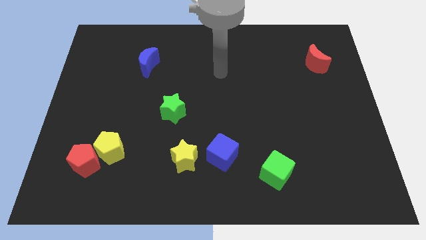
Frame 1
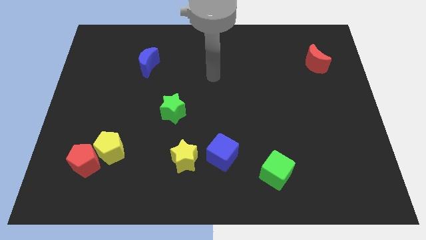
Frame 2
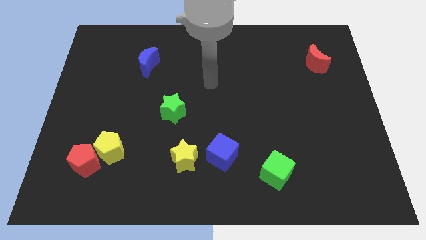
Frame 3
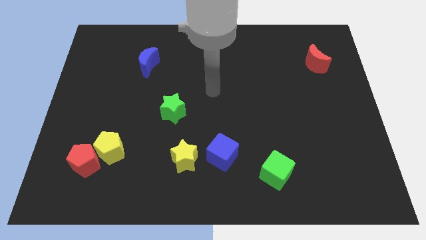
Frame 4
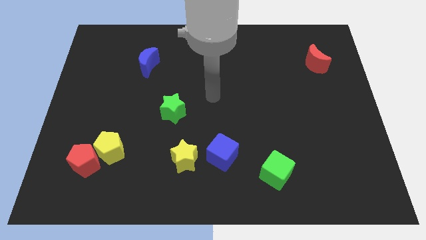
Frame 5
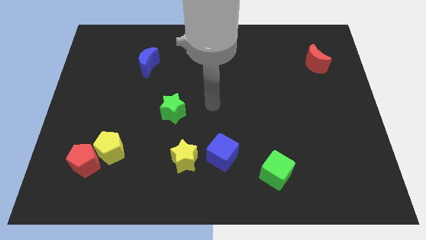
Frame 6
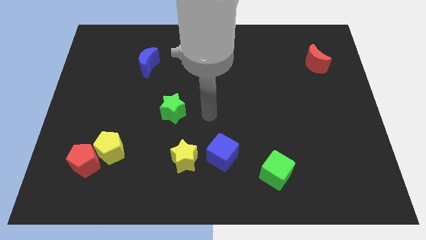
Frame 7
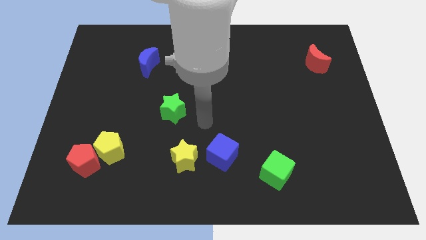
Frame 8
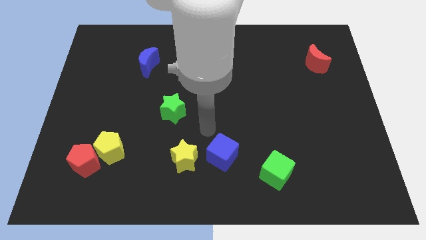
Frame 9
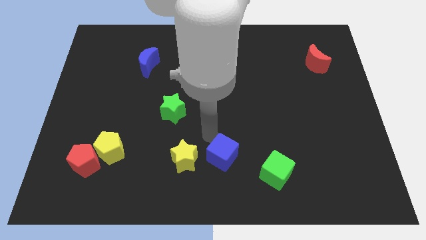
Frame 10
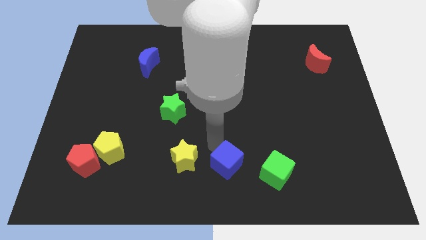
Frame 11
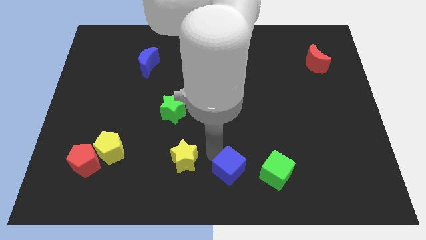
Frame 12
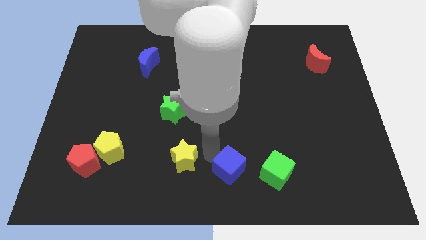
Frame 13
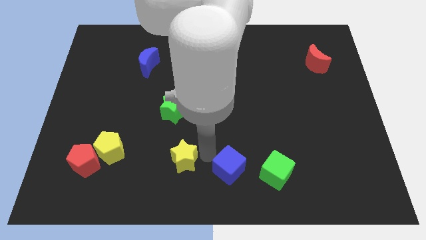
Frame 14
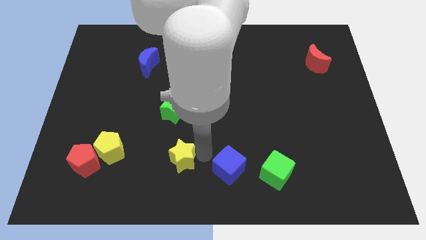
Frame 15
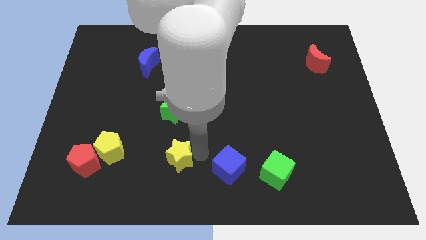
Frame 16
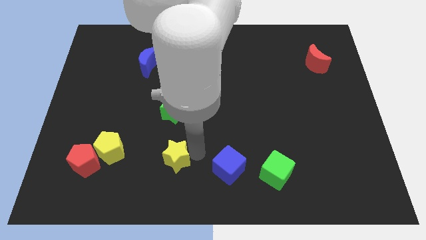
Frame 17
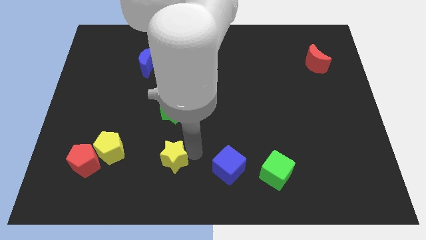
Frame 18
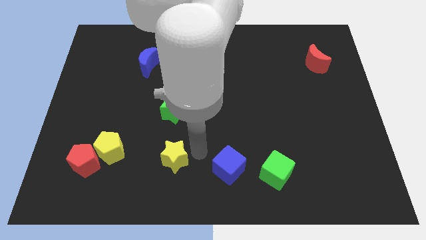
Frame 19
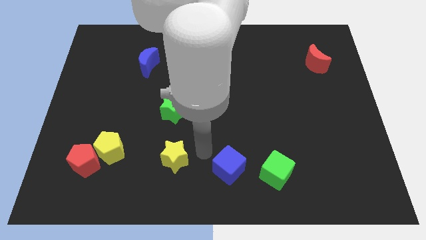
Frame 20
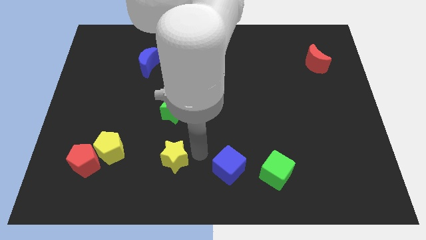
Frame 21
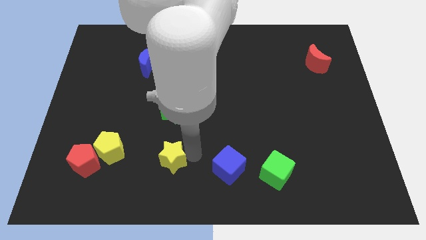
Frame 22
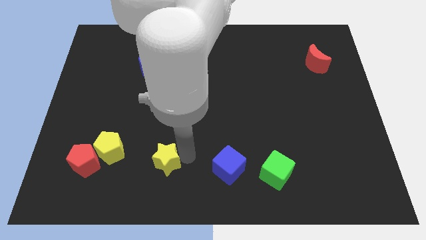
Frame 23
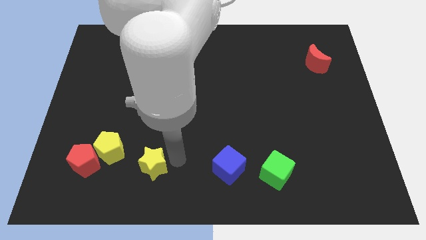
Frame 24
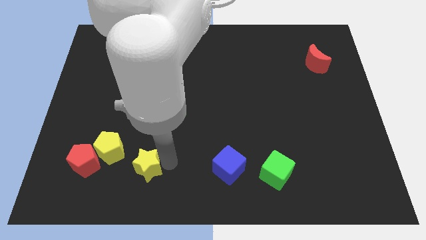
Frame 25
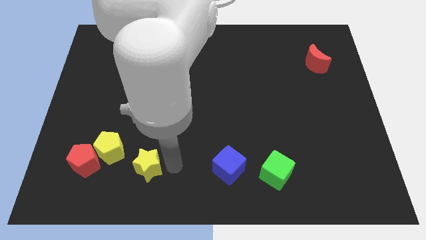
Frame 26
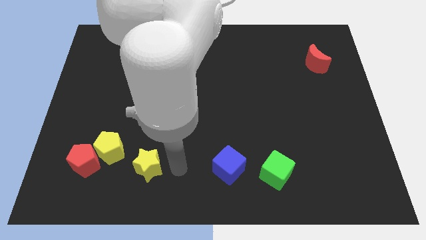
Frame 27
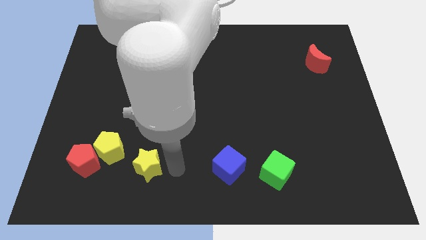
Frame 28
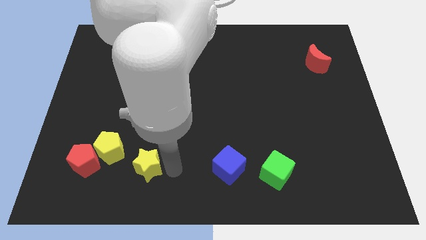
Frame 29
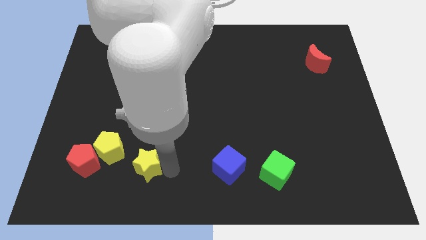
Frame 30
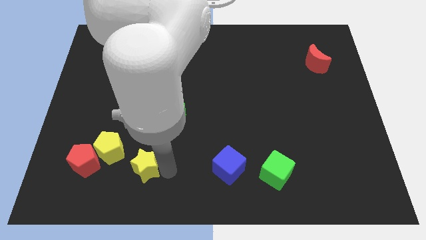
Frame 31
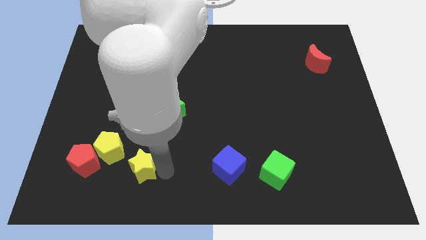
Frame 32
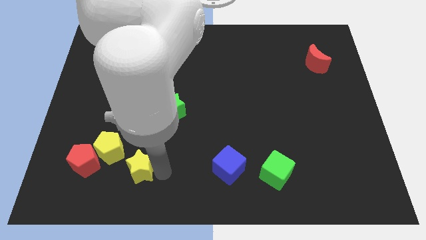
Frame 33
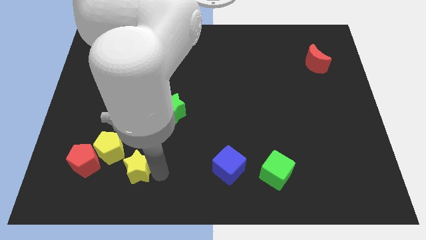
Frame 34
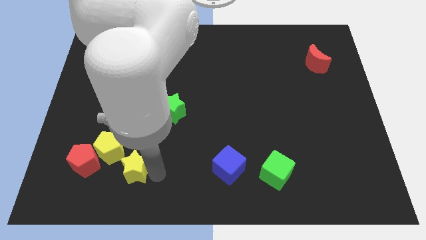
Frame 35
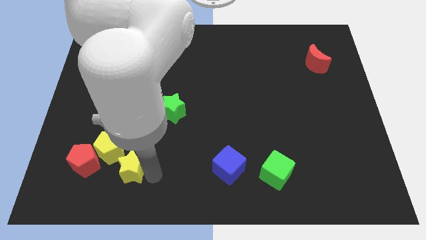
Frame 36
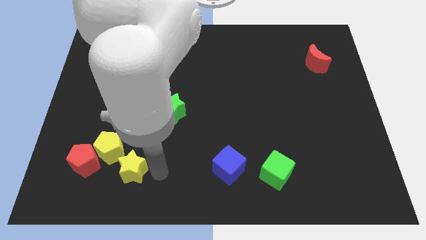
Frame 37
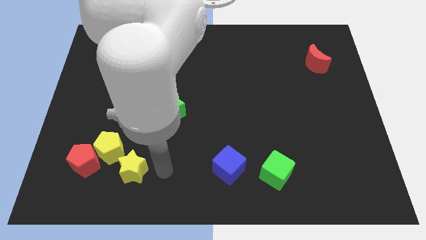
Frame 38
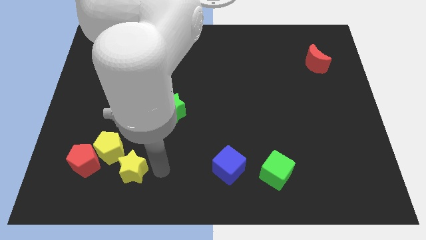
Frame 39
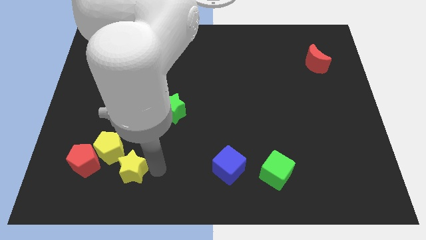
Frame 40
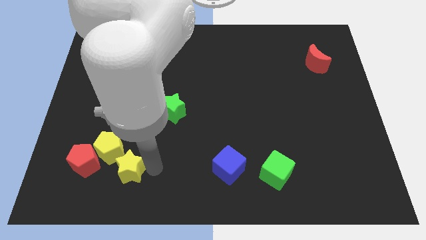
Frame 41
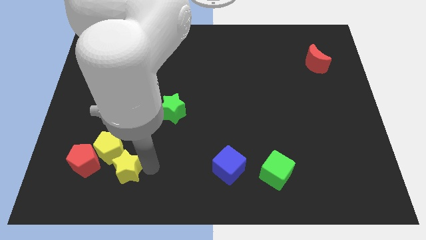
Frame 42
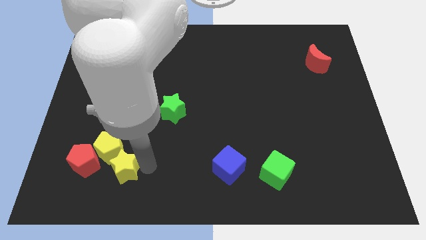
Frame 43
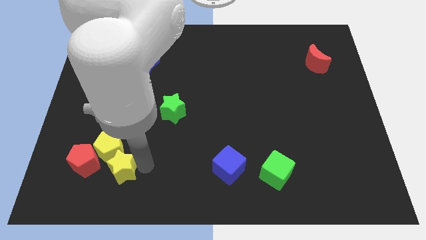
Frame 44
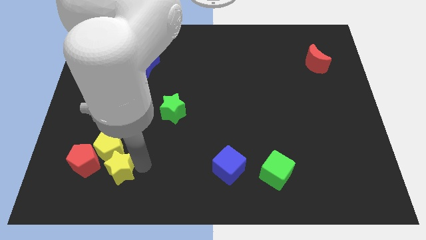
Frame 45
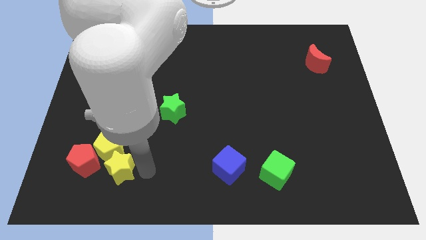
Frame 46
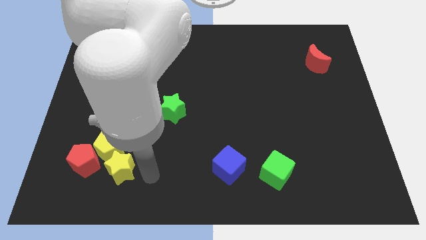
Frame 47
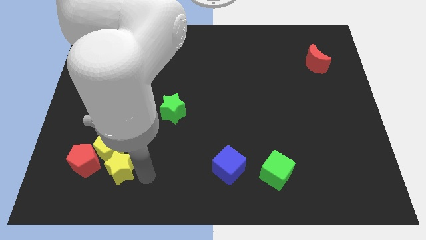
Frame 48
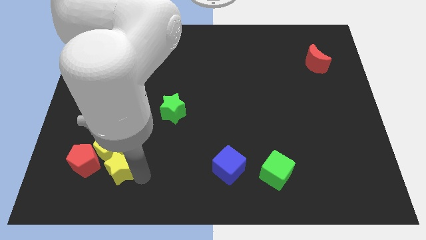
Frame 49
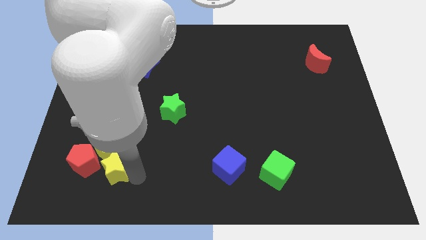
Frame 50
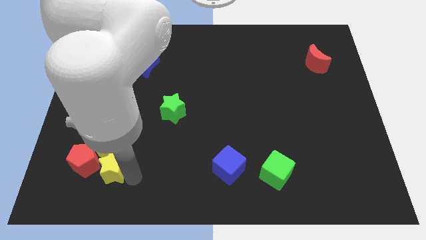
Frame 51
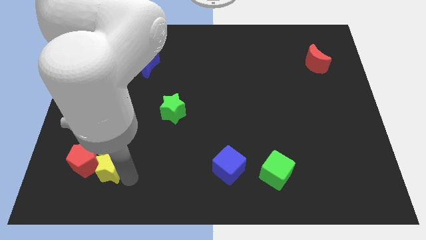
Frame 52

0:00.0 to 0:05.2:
move the yellow star towards the red pentagon

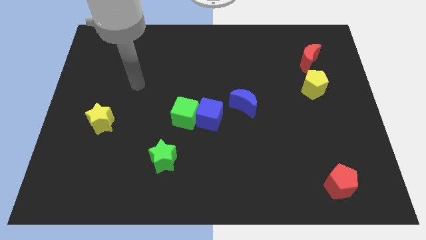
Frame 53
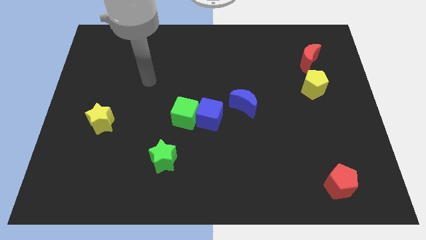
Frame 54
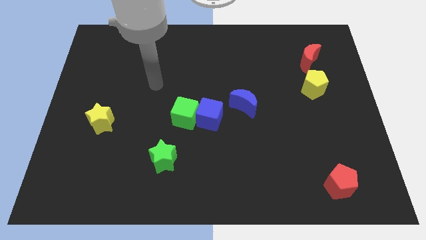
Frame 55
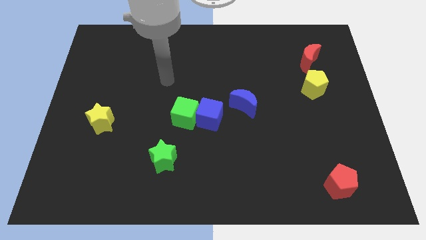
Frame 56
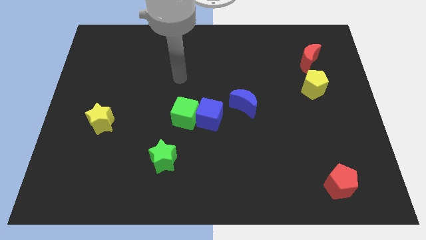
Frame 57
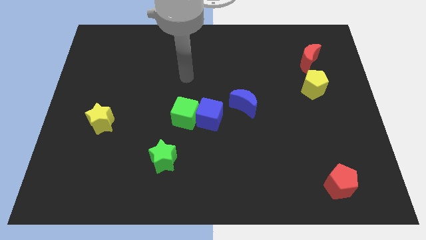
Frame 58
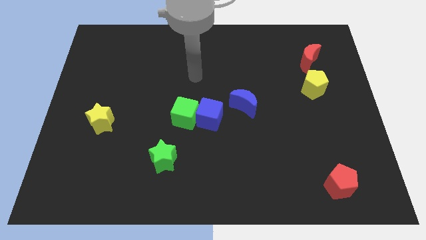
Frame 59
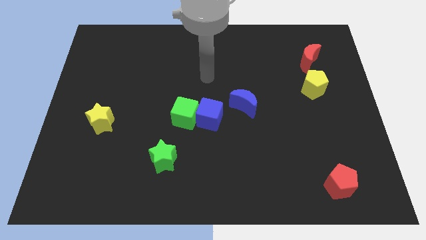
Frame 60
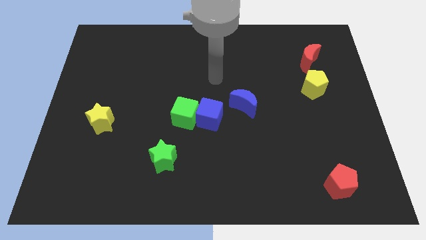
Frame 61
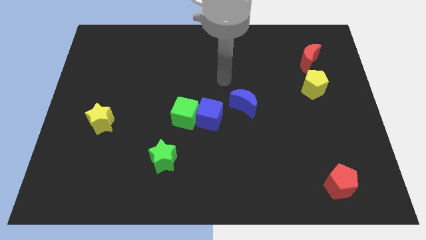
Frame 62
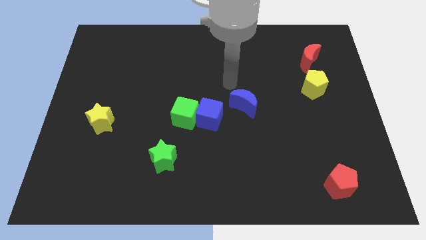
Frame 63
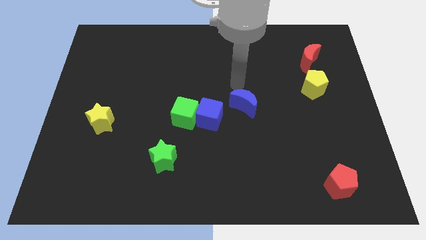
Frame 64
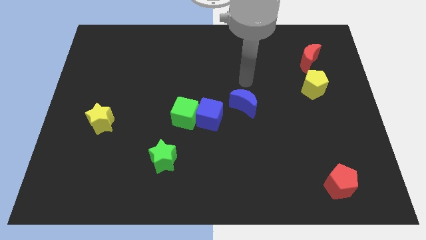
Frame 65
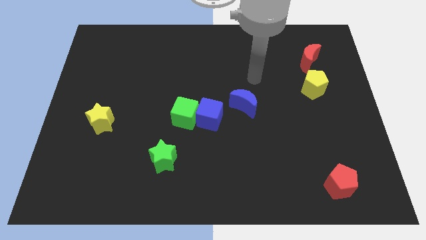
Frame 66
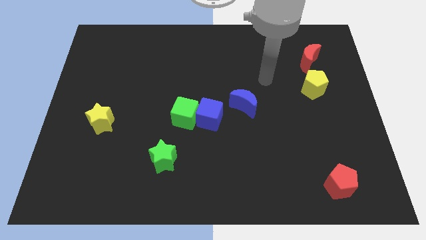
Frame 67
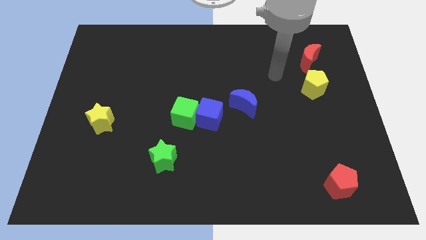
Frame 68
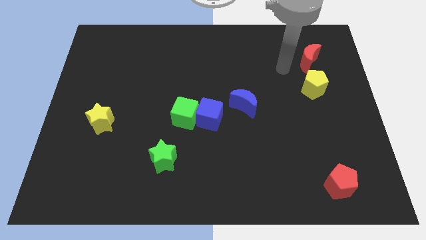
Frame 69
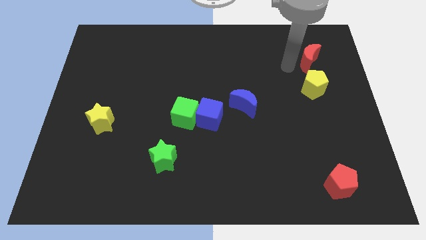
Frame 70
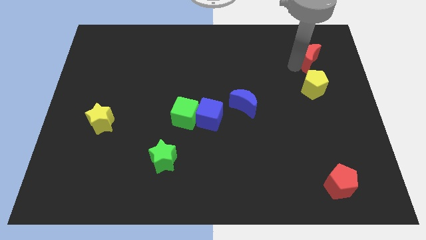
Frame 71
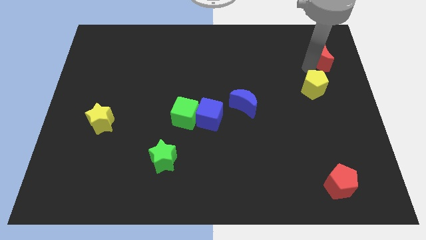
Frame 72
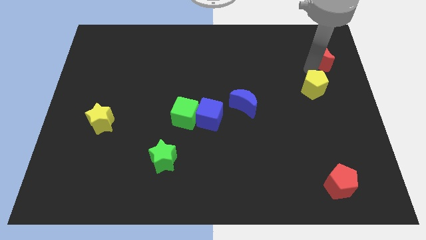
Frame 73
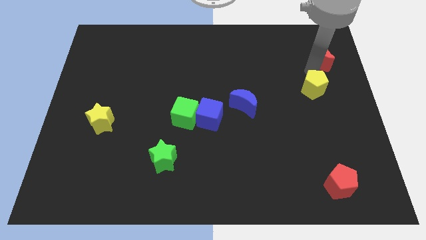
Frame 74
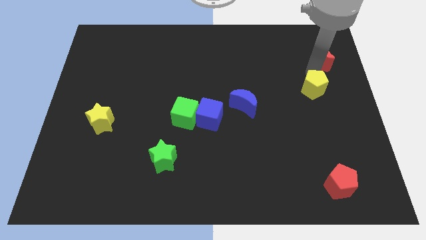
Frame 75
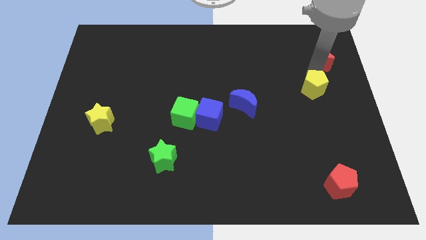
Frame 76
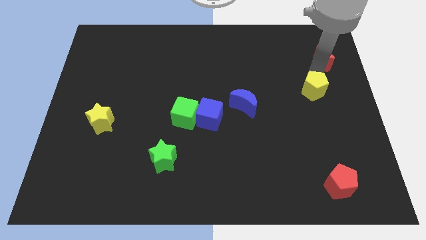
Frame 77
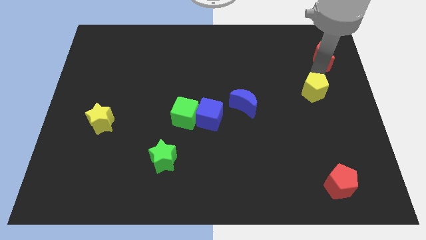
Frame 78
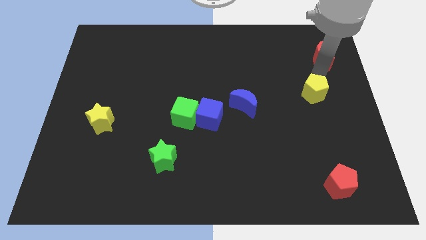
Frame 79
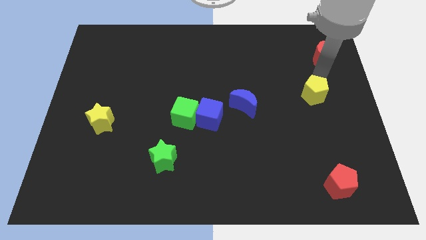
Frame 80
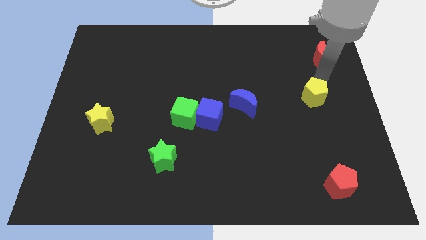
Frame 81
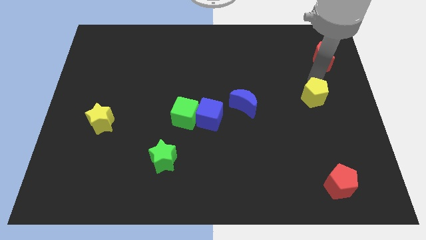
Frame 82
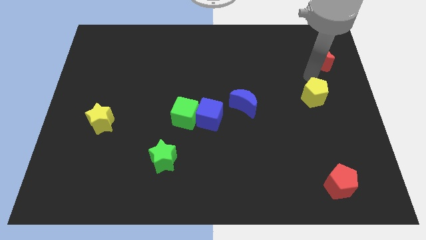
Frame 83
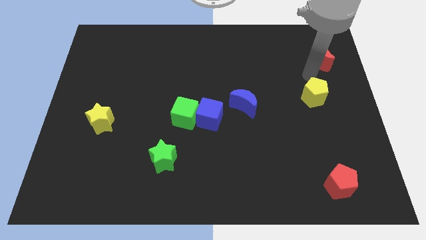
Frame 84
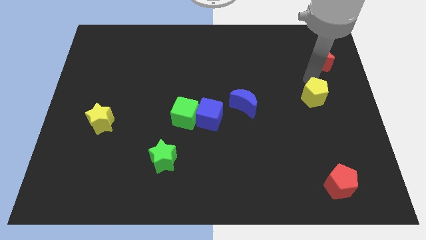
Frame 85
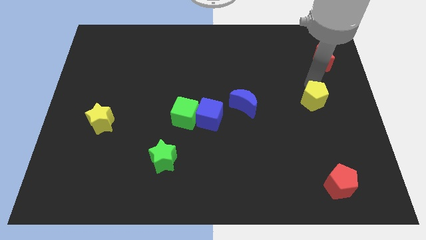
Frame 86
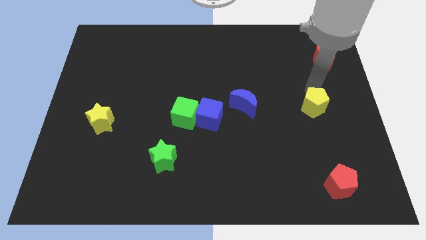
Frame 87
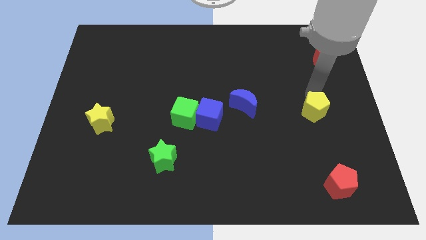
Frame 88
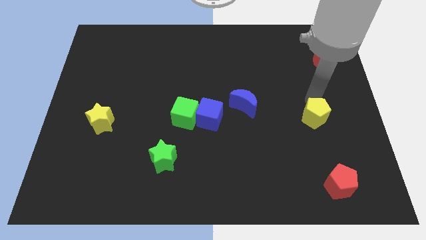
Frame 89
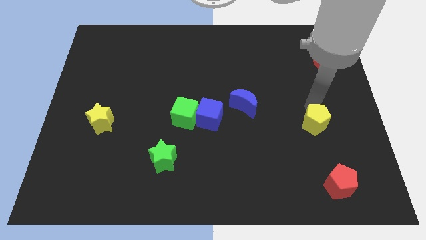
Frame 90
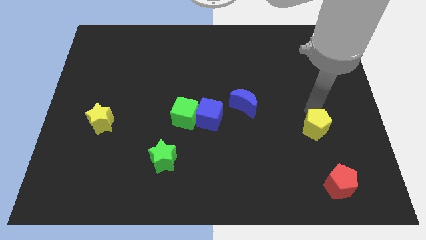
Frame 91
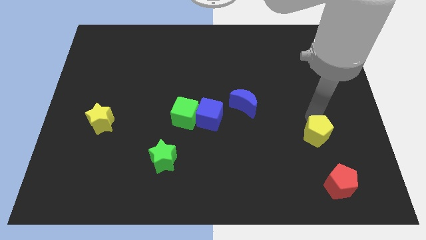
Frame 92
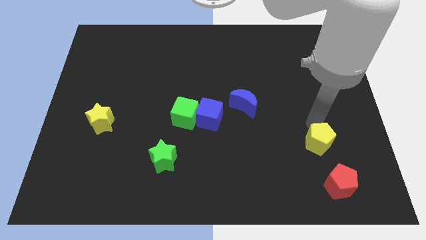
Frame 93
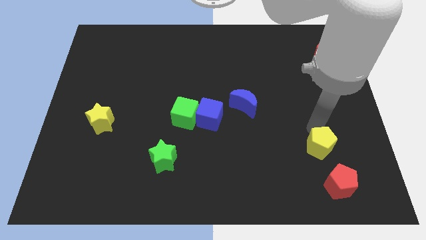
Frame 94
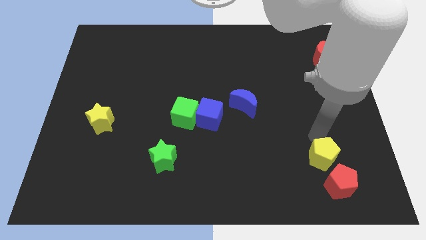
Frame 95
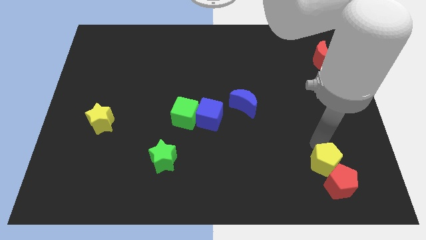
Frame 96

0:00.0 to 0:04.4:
slide the yellow pentagon close to the red pentagon
